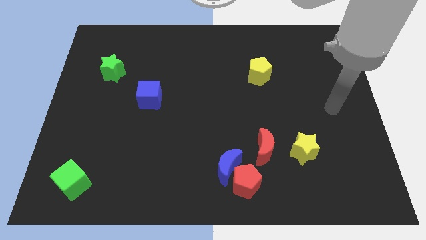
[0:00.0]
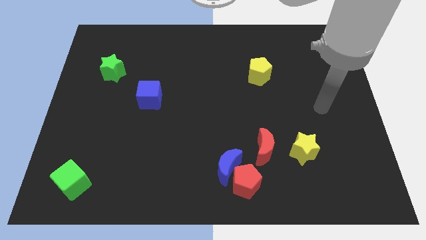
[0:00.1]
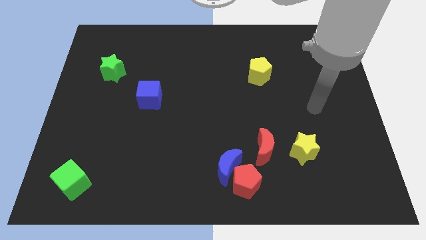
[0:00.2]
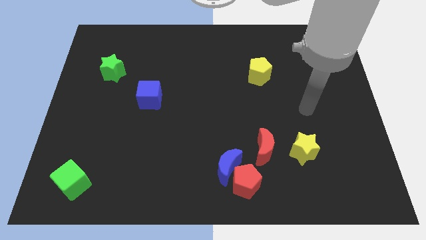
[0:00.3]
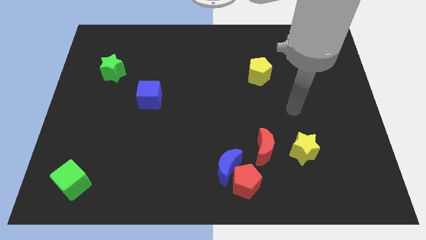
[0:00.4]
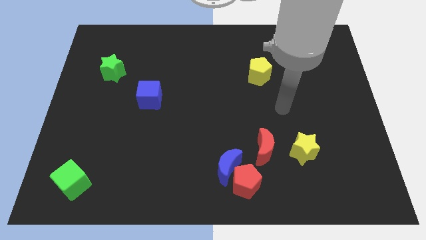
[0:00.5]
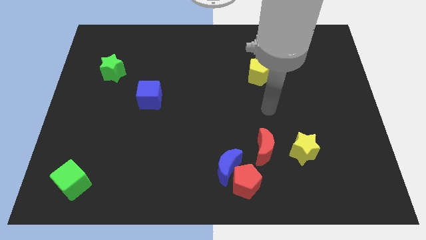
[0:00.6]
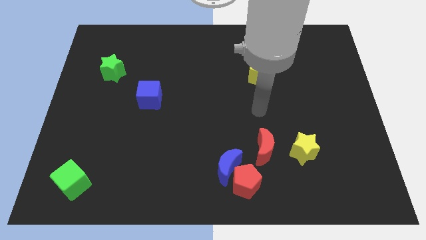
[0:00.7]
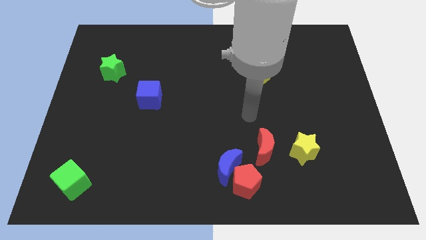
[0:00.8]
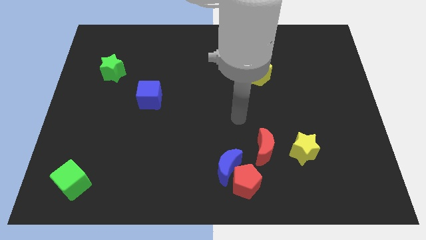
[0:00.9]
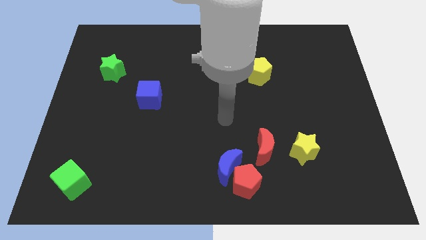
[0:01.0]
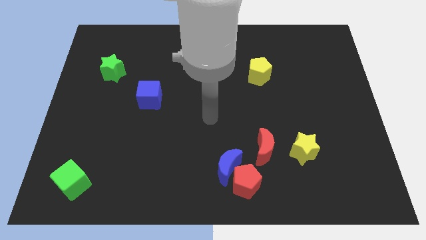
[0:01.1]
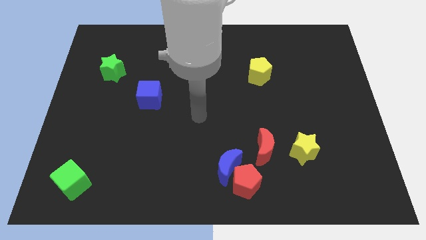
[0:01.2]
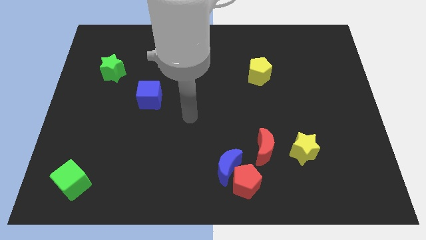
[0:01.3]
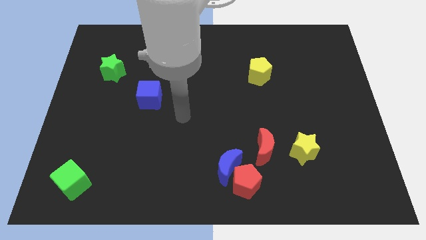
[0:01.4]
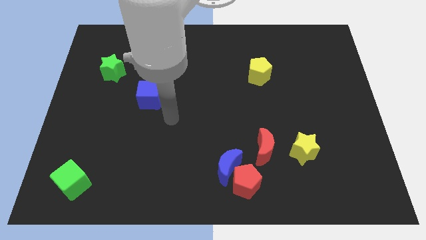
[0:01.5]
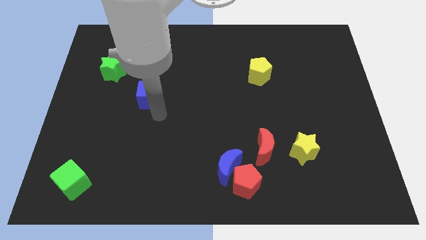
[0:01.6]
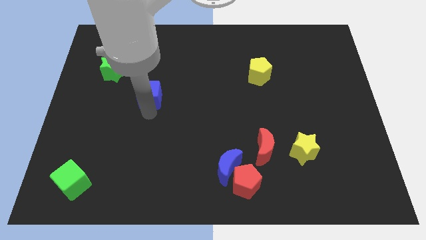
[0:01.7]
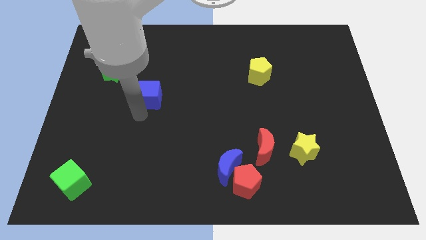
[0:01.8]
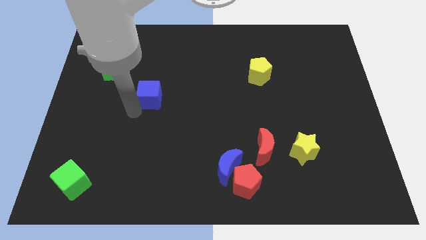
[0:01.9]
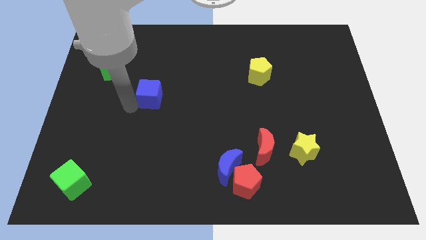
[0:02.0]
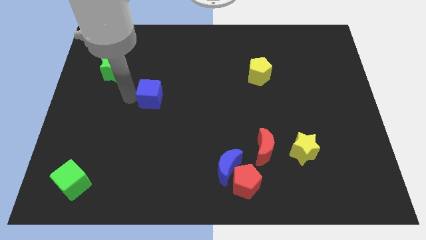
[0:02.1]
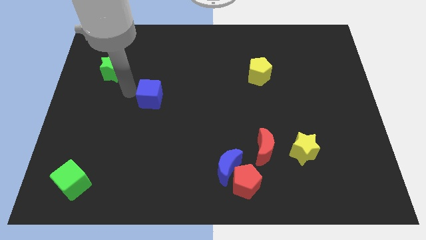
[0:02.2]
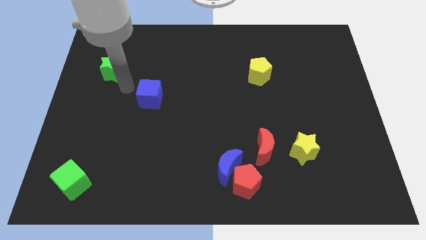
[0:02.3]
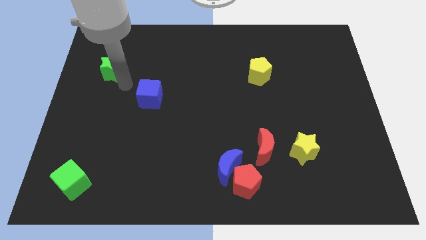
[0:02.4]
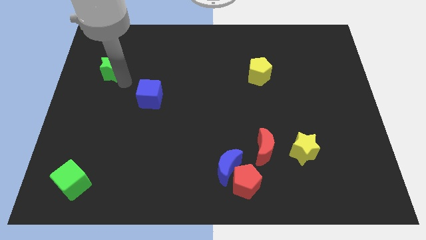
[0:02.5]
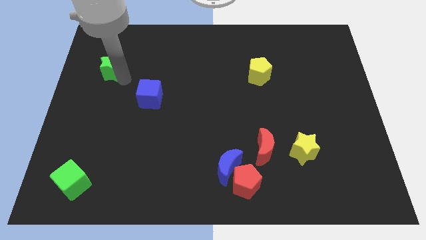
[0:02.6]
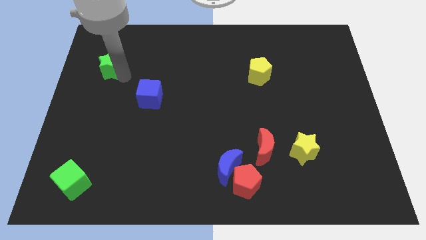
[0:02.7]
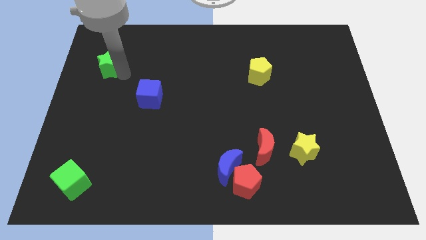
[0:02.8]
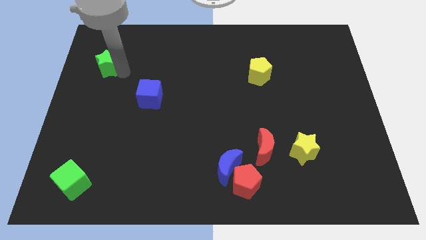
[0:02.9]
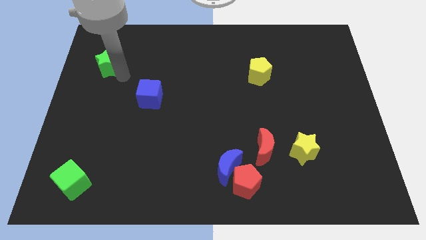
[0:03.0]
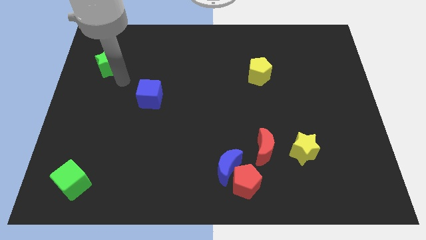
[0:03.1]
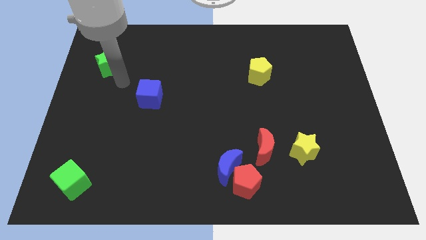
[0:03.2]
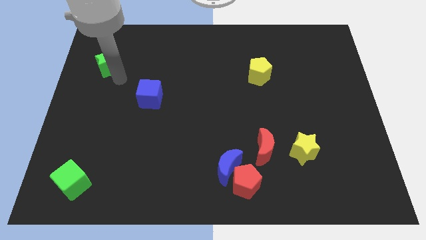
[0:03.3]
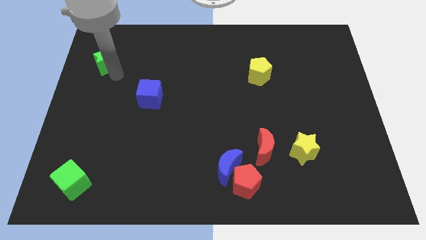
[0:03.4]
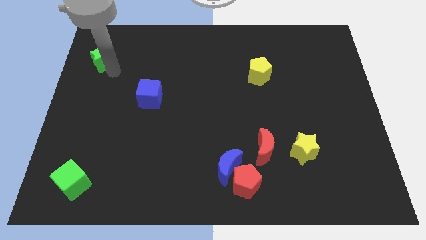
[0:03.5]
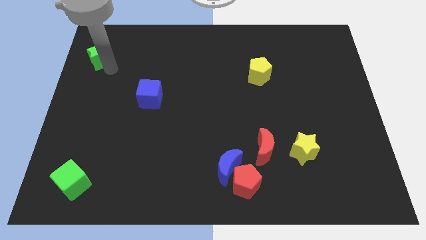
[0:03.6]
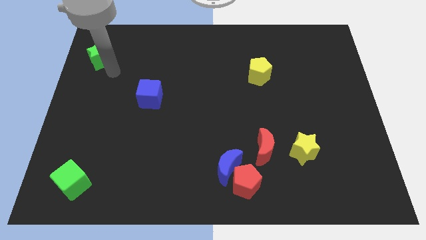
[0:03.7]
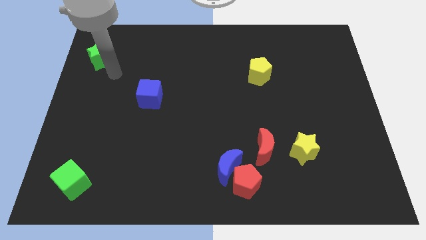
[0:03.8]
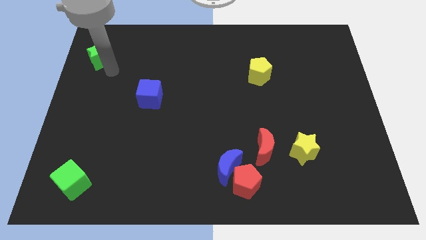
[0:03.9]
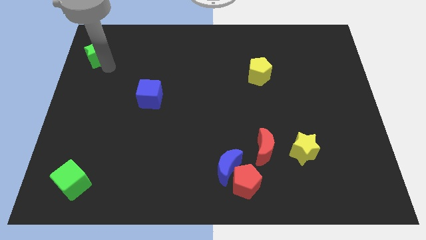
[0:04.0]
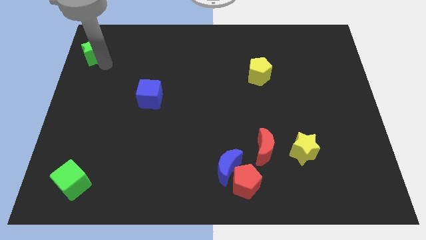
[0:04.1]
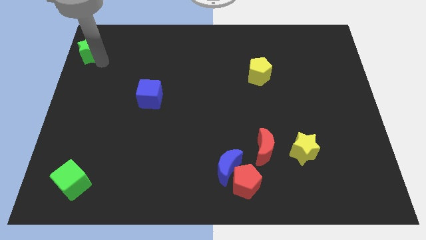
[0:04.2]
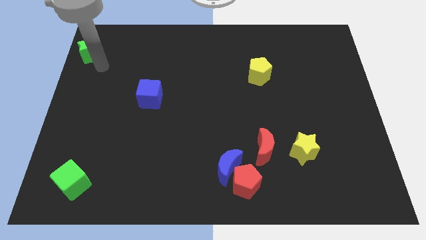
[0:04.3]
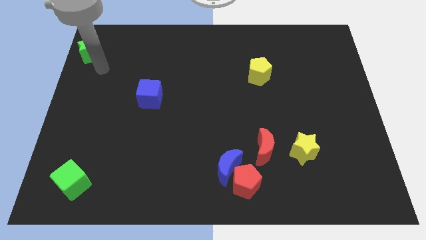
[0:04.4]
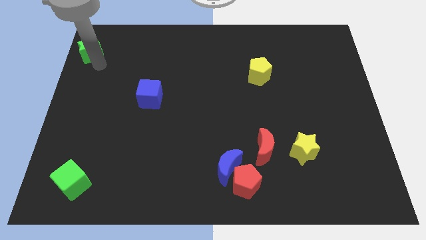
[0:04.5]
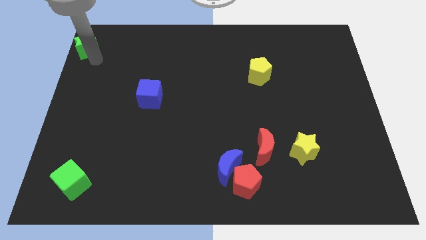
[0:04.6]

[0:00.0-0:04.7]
move the green star to the top left

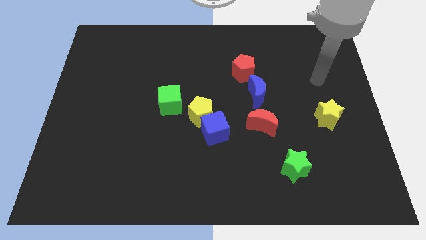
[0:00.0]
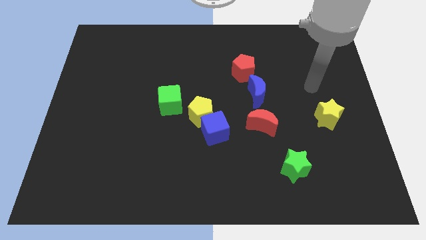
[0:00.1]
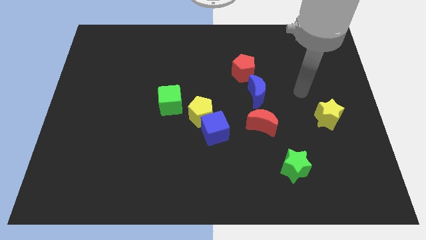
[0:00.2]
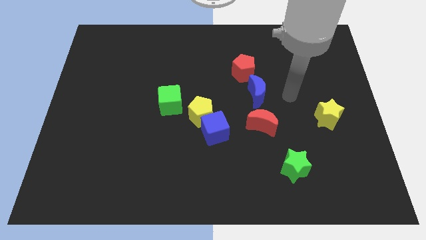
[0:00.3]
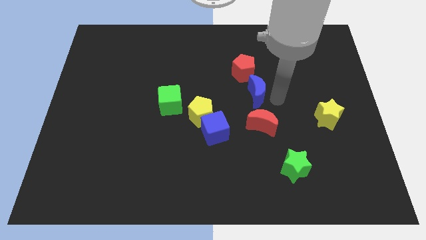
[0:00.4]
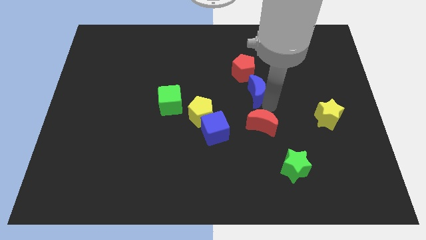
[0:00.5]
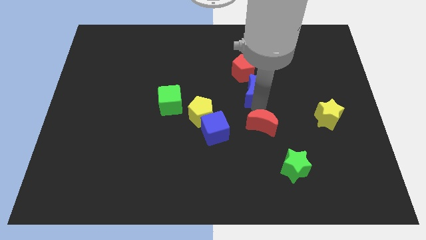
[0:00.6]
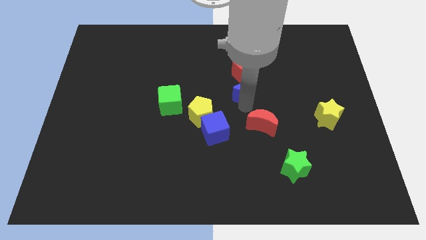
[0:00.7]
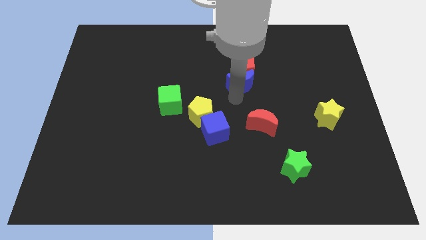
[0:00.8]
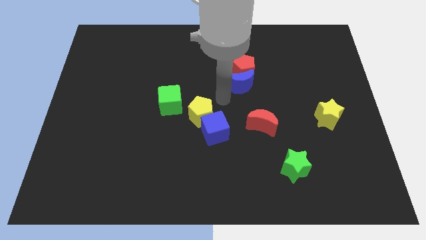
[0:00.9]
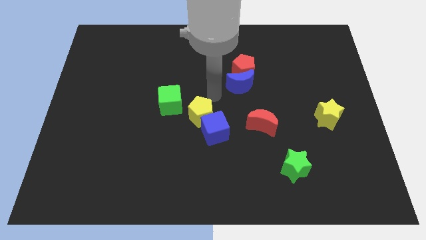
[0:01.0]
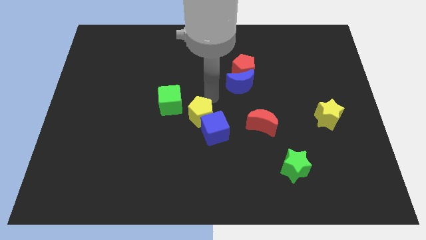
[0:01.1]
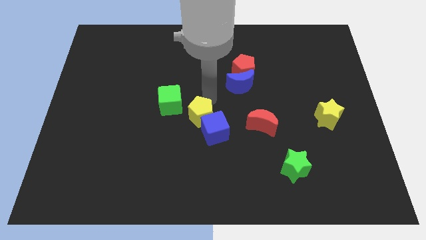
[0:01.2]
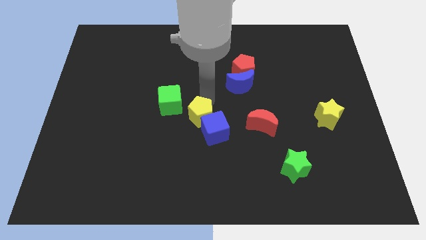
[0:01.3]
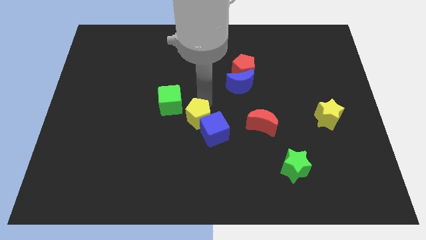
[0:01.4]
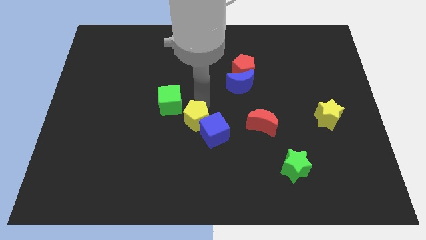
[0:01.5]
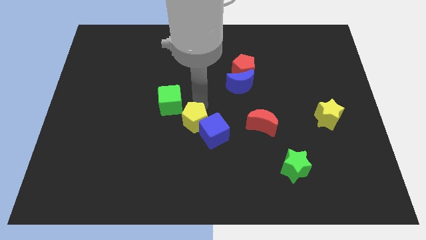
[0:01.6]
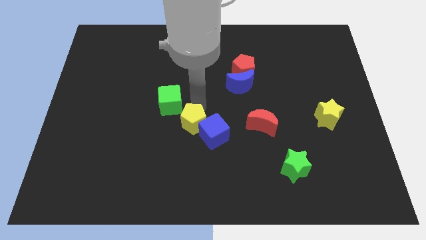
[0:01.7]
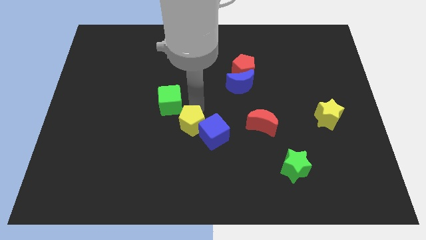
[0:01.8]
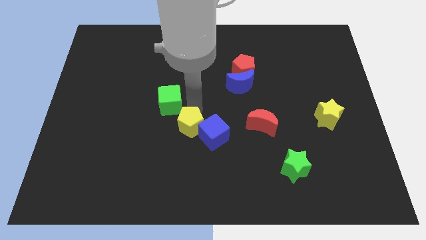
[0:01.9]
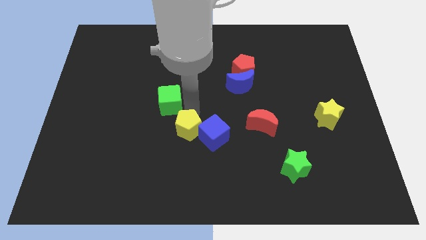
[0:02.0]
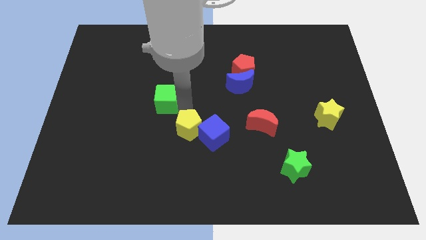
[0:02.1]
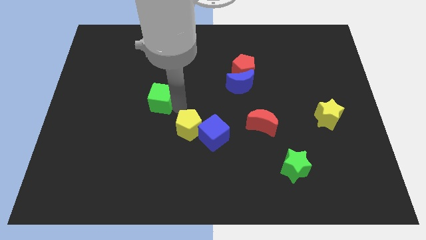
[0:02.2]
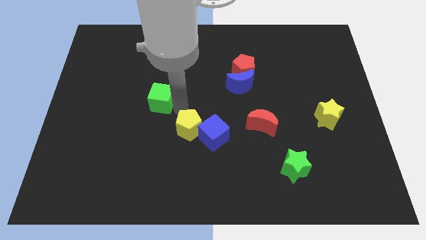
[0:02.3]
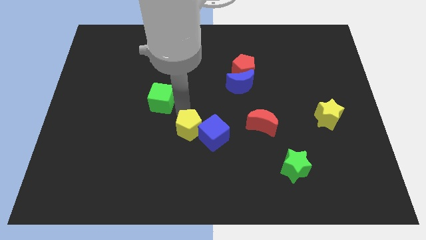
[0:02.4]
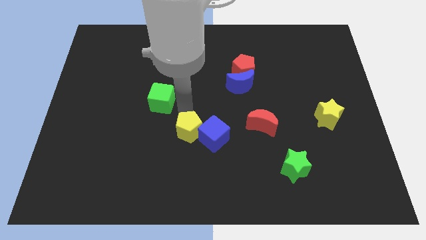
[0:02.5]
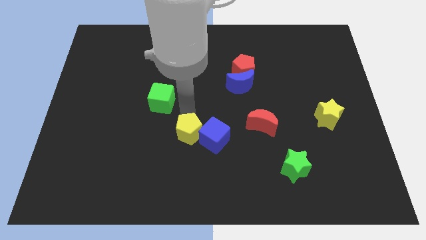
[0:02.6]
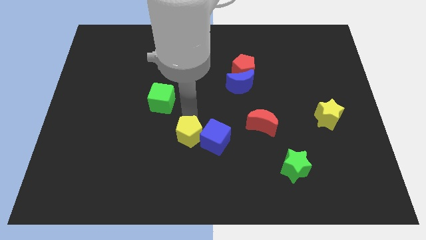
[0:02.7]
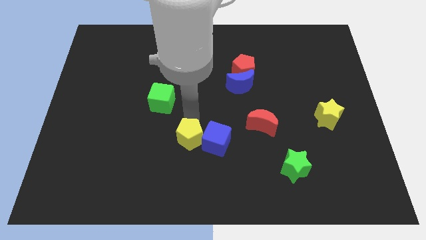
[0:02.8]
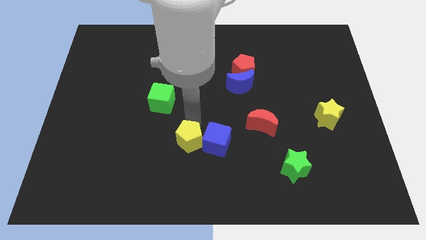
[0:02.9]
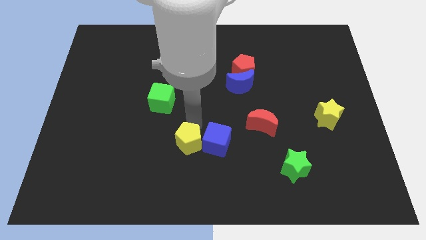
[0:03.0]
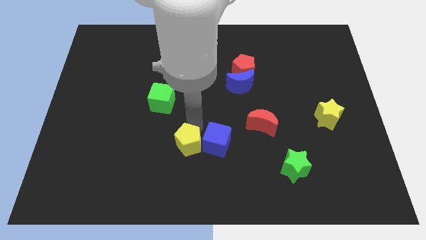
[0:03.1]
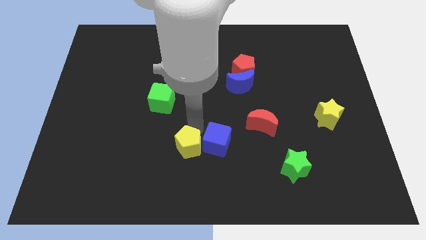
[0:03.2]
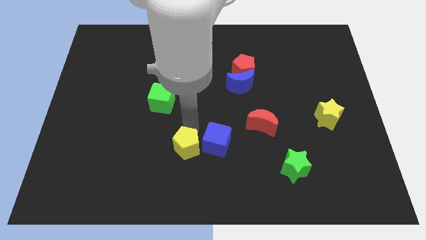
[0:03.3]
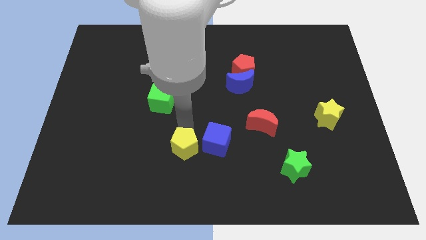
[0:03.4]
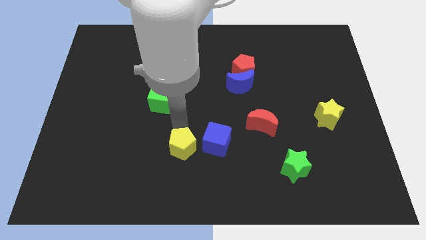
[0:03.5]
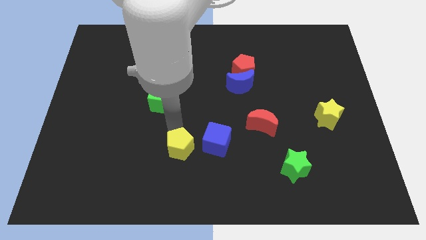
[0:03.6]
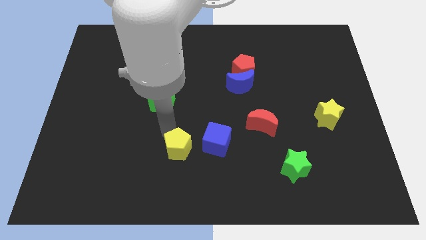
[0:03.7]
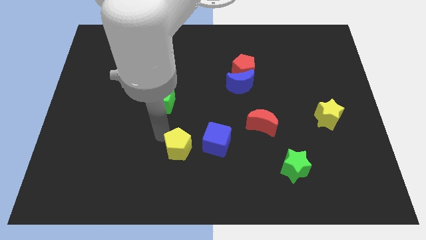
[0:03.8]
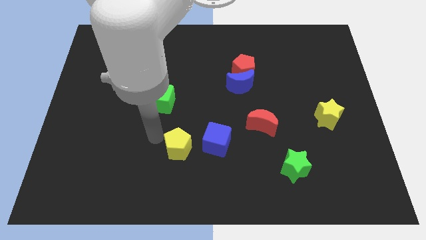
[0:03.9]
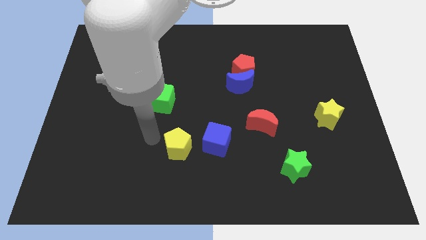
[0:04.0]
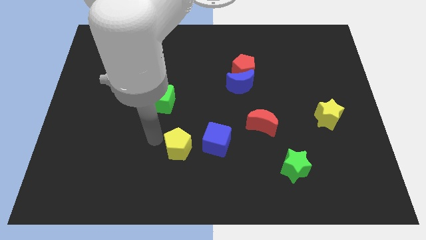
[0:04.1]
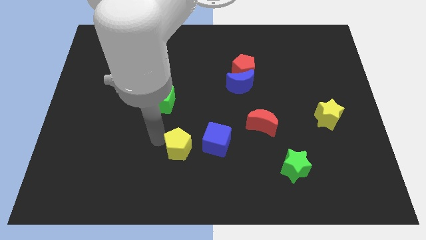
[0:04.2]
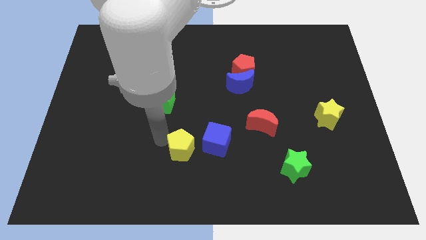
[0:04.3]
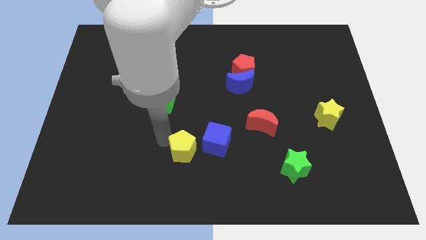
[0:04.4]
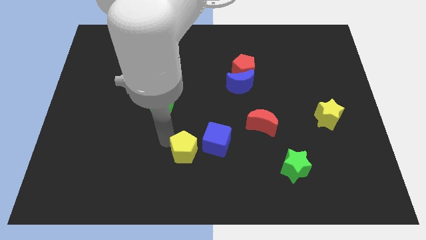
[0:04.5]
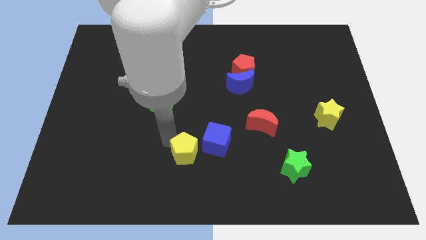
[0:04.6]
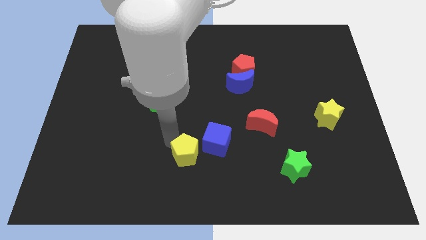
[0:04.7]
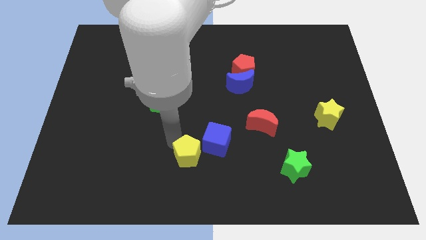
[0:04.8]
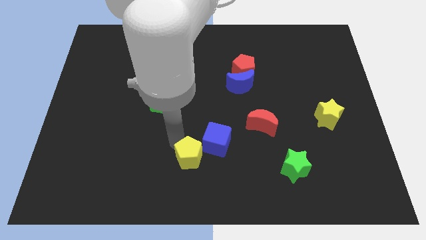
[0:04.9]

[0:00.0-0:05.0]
push the yellow pentagon to the bottom
